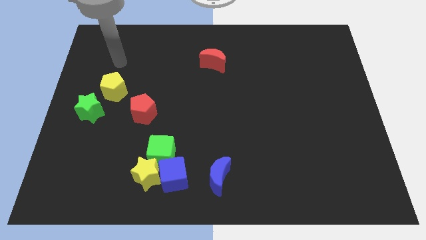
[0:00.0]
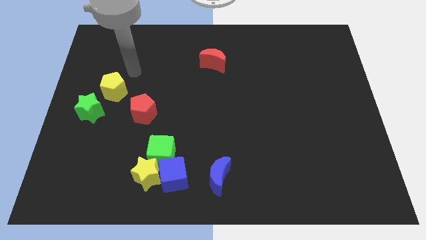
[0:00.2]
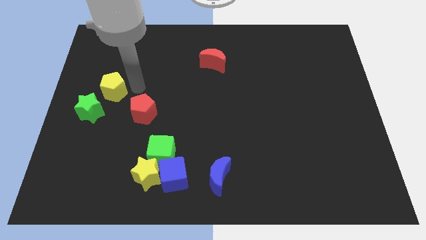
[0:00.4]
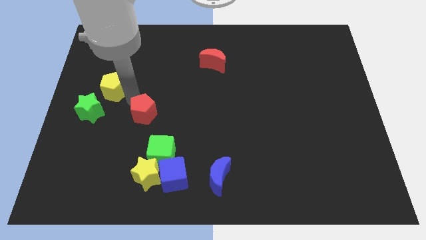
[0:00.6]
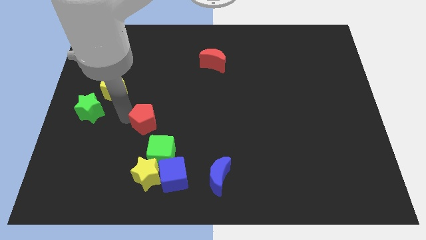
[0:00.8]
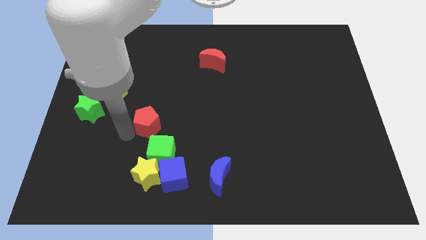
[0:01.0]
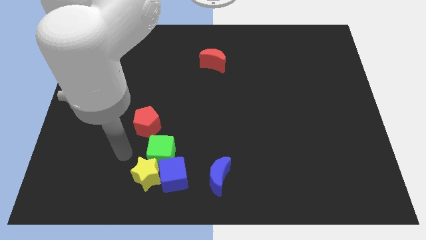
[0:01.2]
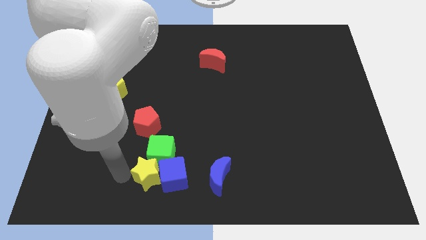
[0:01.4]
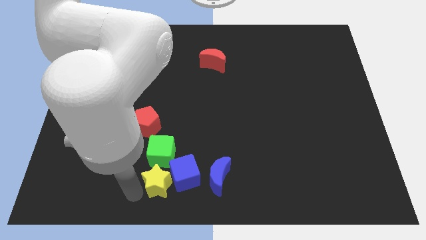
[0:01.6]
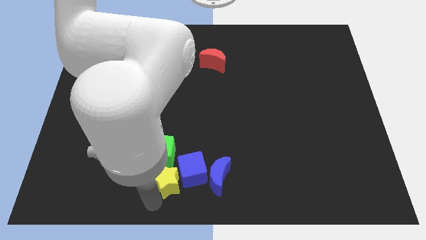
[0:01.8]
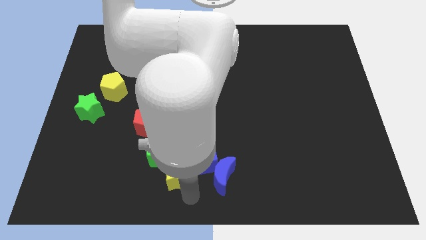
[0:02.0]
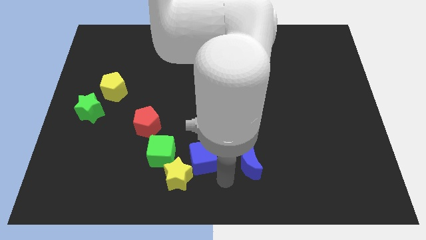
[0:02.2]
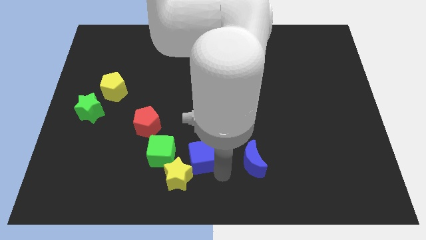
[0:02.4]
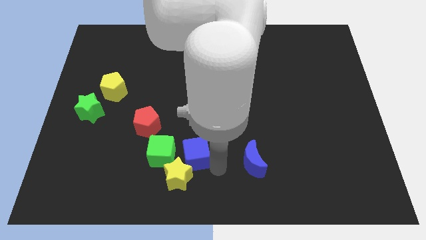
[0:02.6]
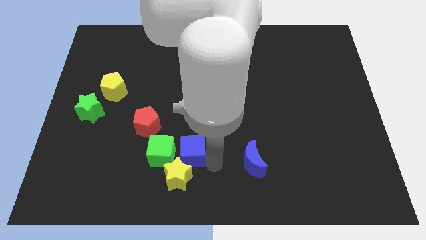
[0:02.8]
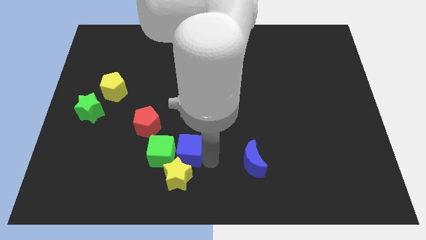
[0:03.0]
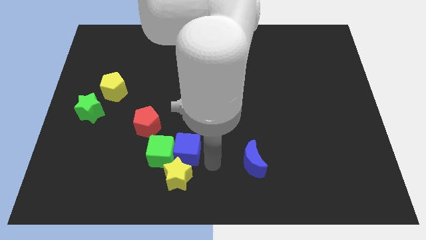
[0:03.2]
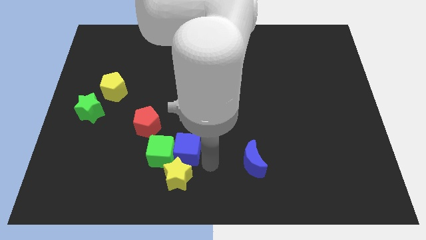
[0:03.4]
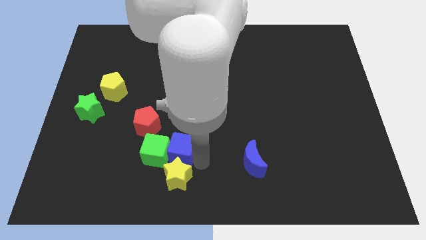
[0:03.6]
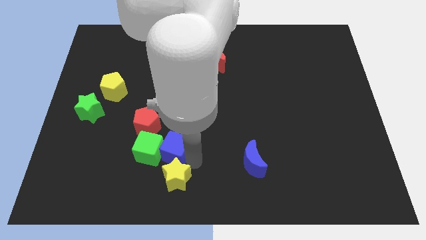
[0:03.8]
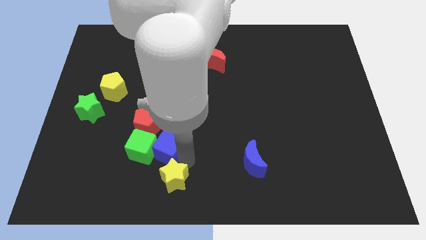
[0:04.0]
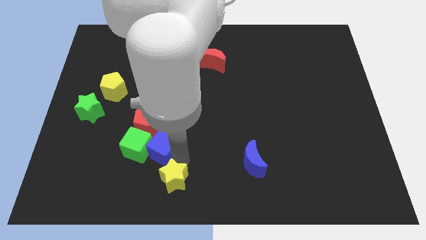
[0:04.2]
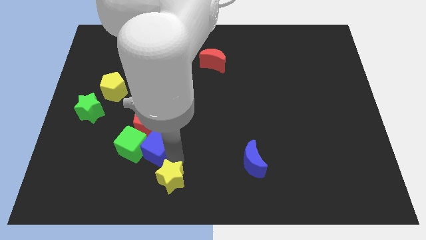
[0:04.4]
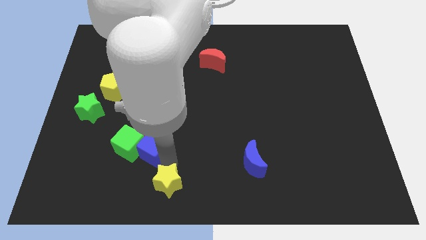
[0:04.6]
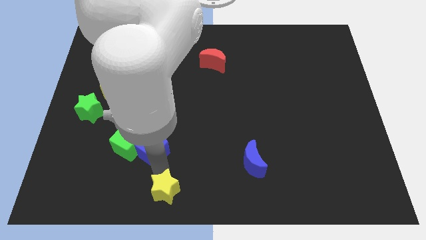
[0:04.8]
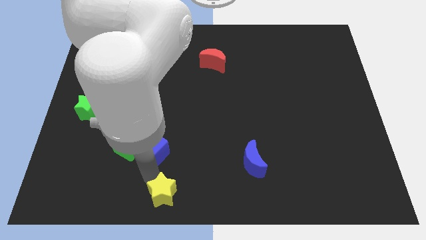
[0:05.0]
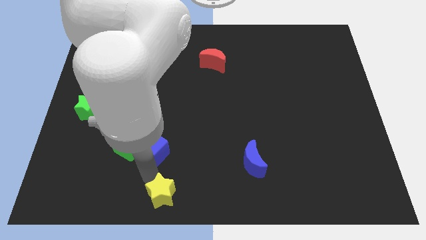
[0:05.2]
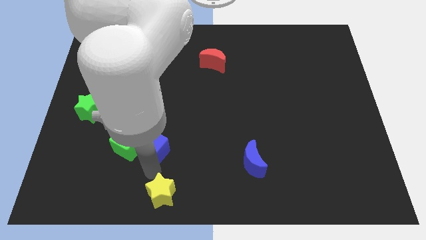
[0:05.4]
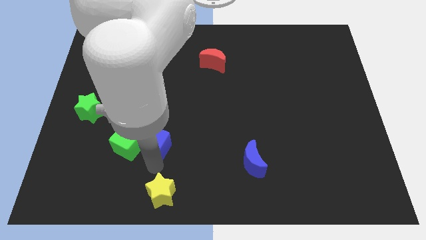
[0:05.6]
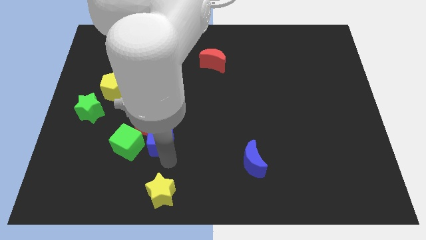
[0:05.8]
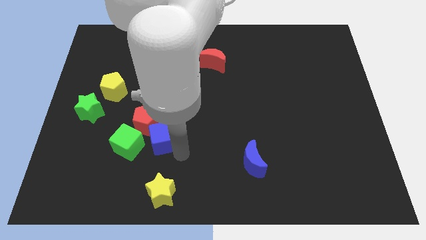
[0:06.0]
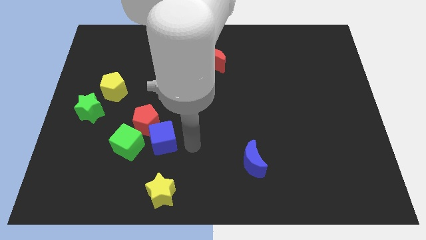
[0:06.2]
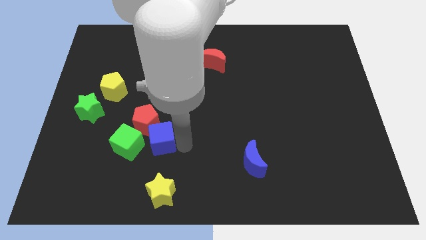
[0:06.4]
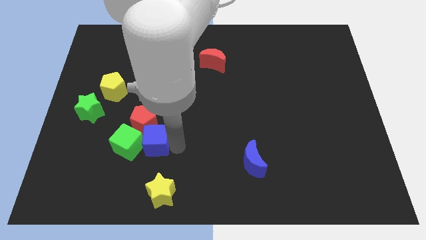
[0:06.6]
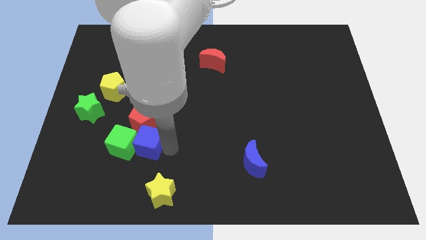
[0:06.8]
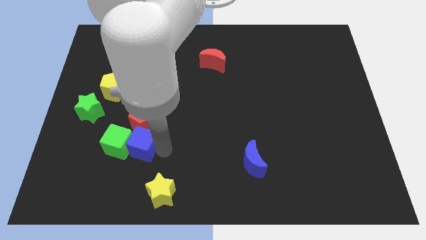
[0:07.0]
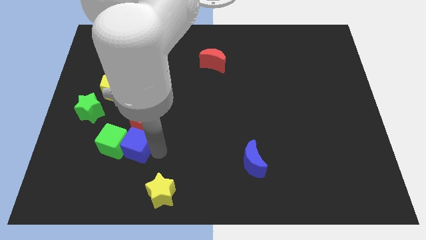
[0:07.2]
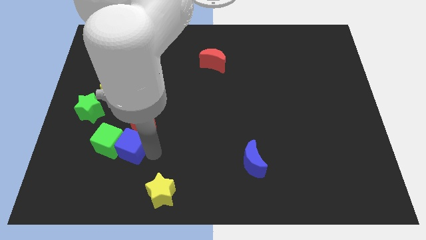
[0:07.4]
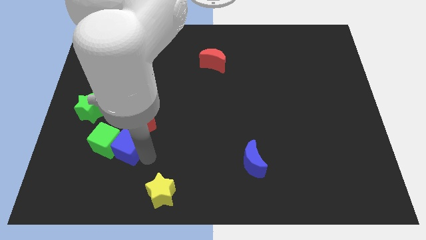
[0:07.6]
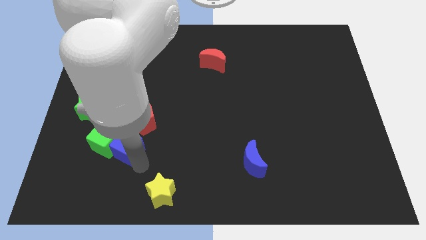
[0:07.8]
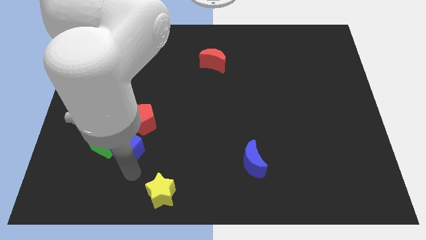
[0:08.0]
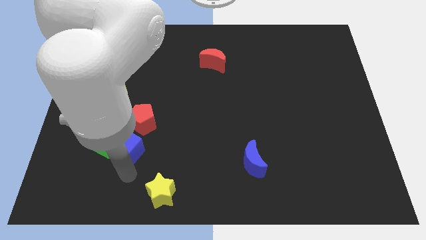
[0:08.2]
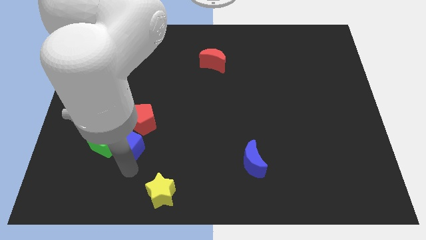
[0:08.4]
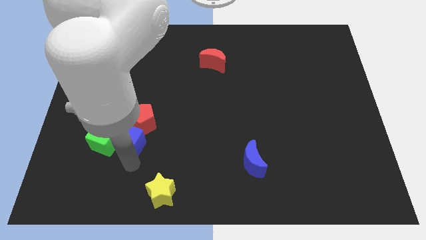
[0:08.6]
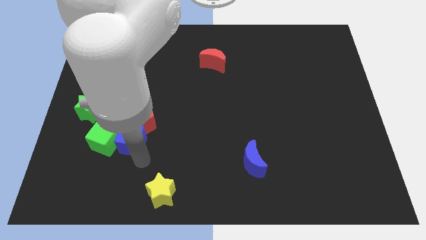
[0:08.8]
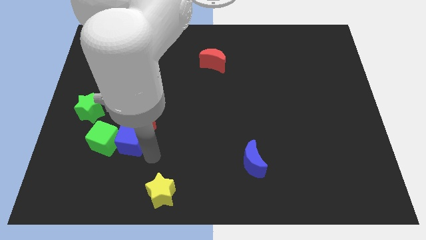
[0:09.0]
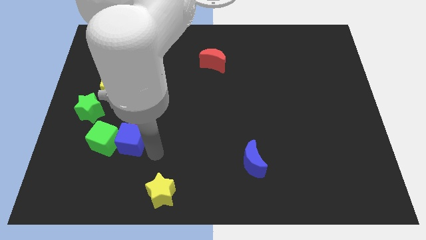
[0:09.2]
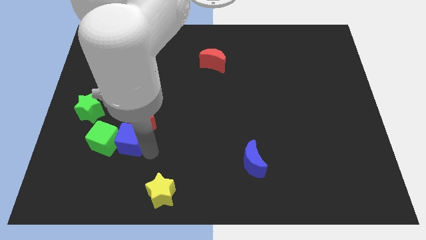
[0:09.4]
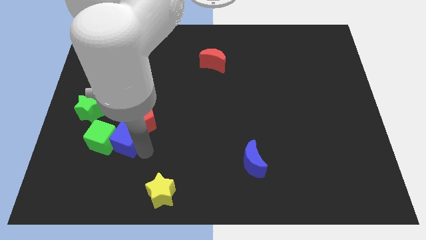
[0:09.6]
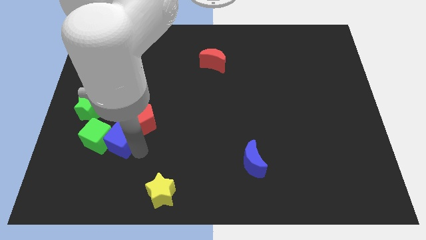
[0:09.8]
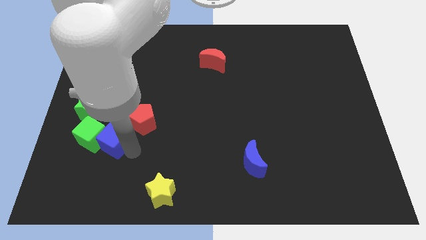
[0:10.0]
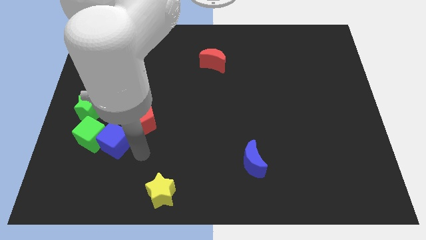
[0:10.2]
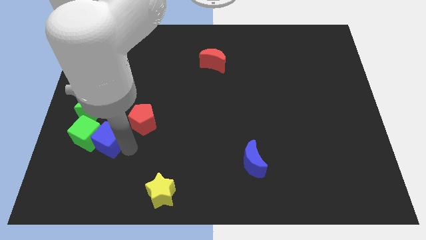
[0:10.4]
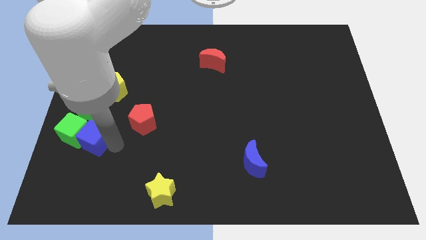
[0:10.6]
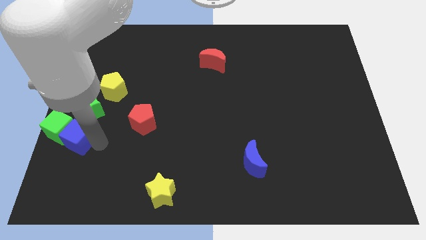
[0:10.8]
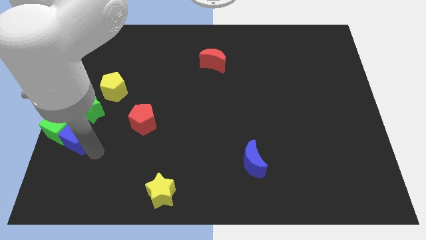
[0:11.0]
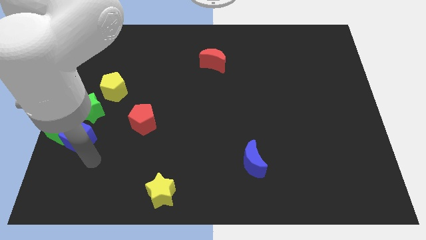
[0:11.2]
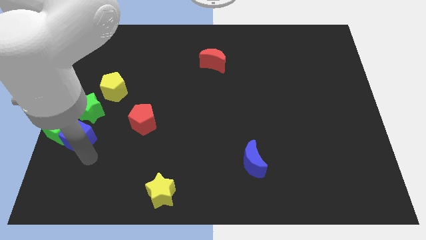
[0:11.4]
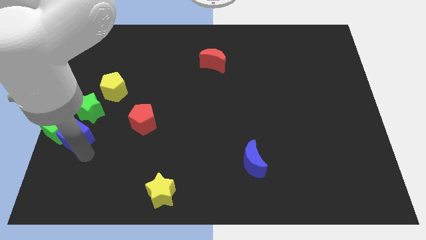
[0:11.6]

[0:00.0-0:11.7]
put the blue cube to the left side
